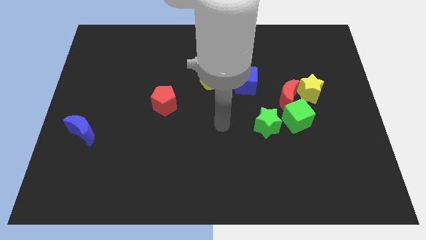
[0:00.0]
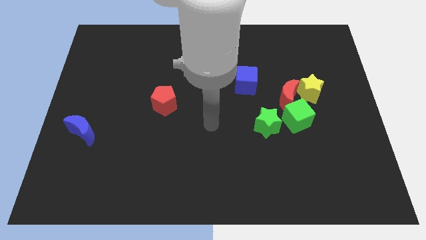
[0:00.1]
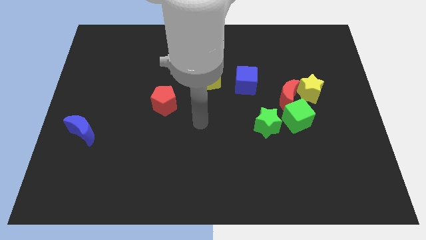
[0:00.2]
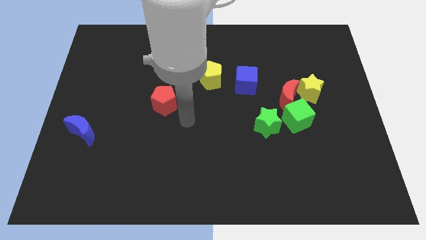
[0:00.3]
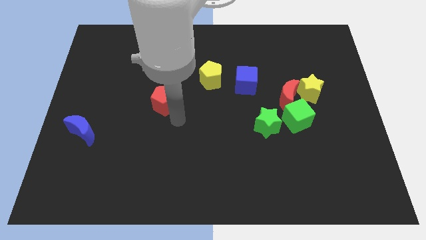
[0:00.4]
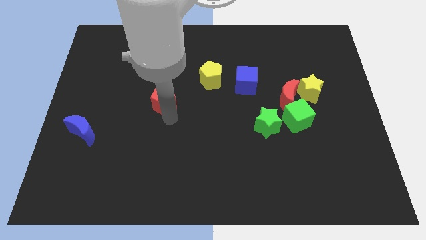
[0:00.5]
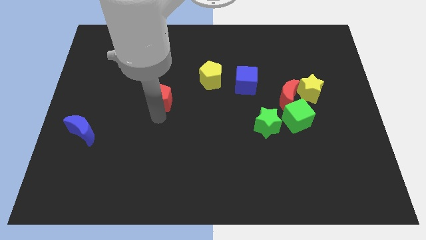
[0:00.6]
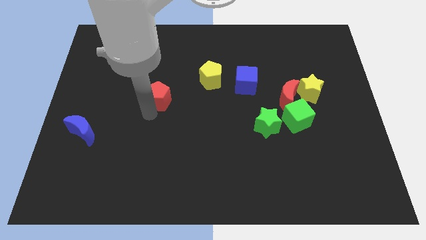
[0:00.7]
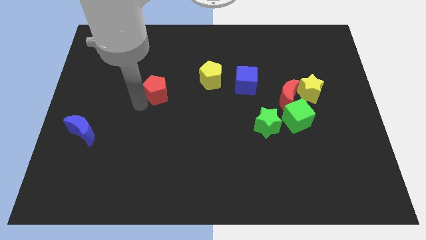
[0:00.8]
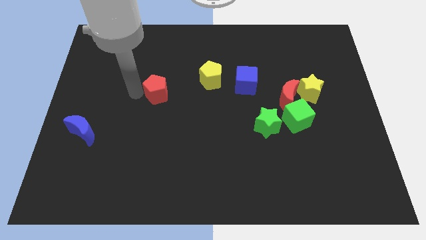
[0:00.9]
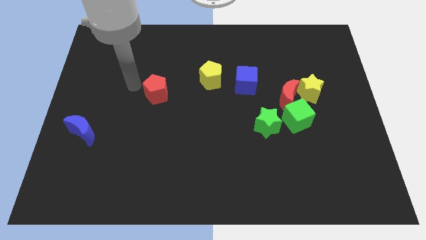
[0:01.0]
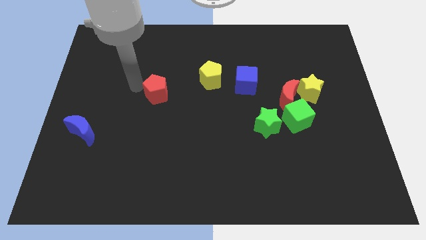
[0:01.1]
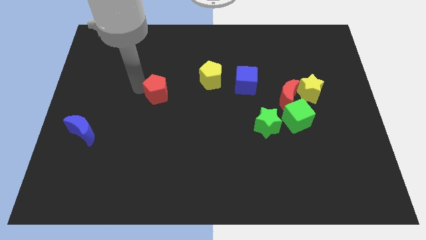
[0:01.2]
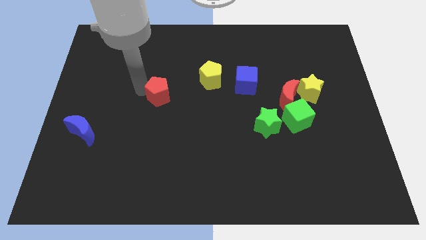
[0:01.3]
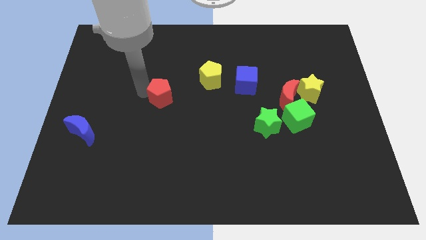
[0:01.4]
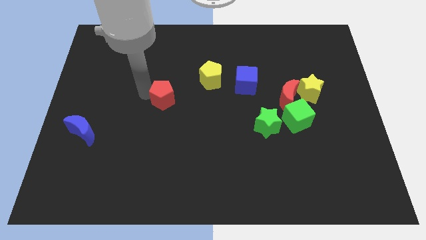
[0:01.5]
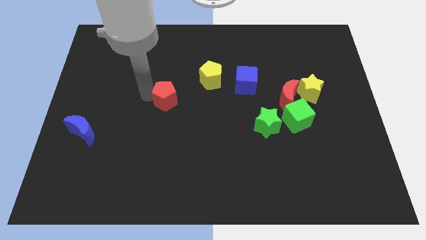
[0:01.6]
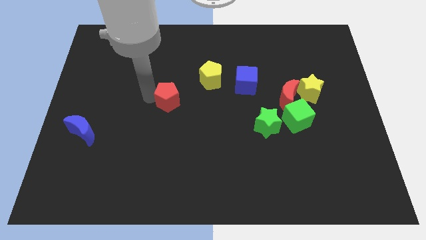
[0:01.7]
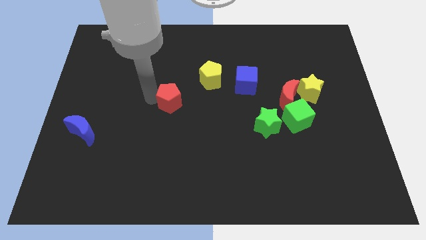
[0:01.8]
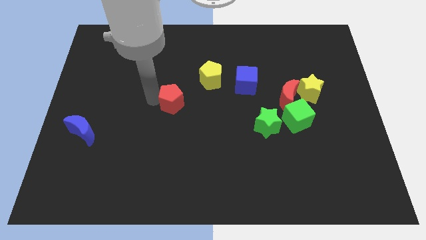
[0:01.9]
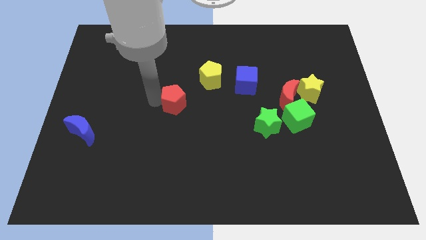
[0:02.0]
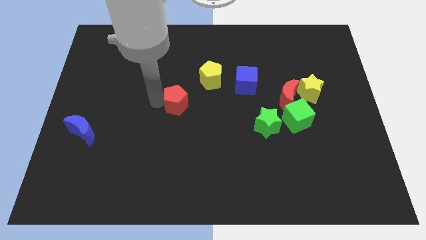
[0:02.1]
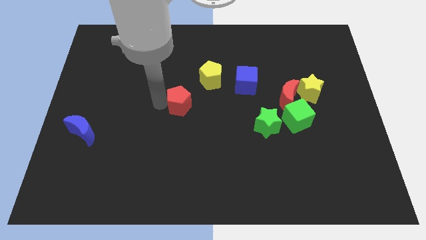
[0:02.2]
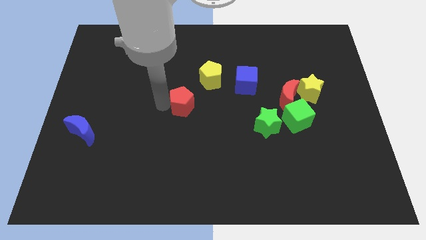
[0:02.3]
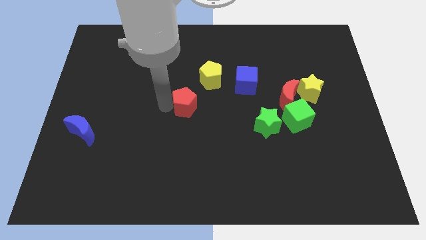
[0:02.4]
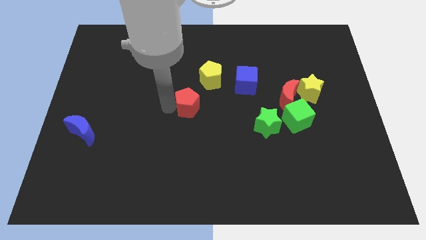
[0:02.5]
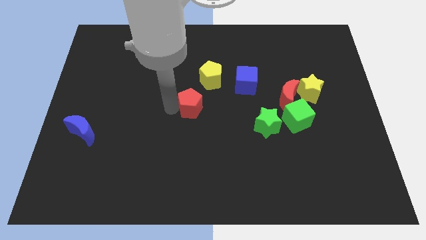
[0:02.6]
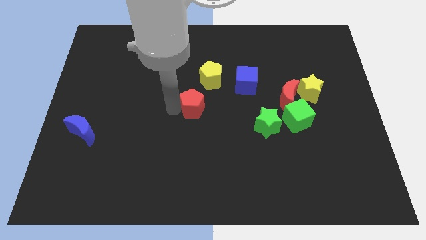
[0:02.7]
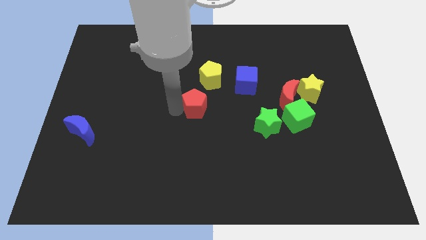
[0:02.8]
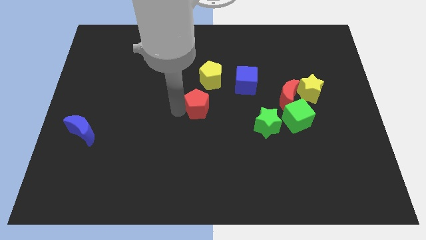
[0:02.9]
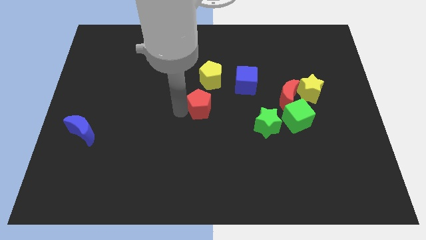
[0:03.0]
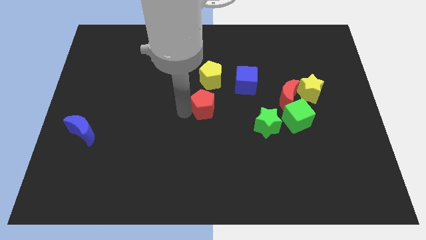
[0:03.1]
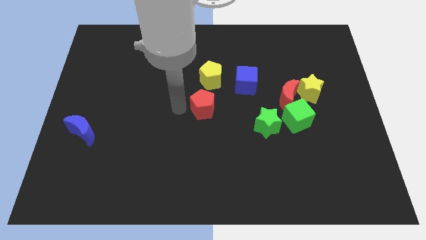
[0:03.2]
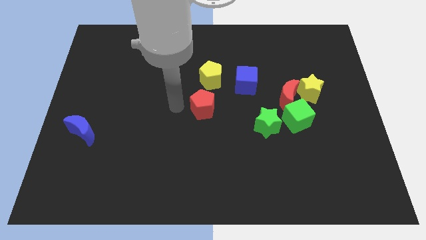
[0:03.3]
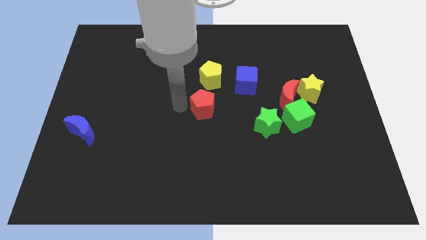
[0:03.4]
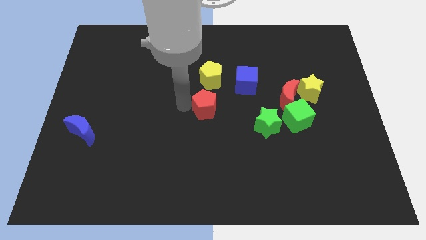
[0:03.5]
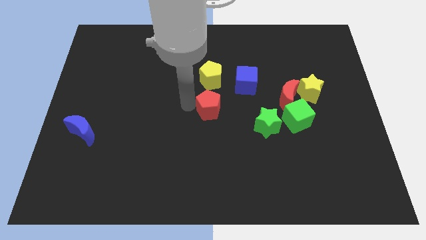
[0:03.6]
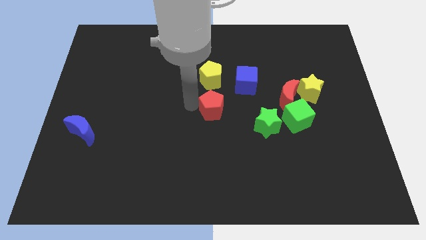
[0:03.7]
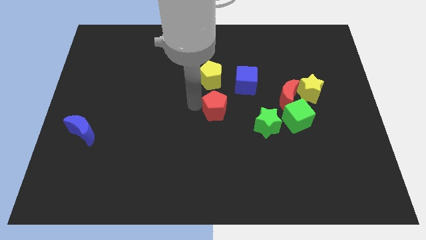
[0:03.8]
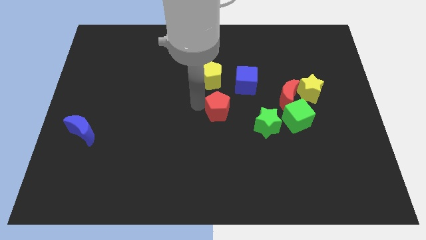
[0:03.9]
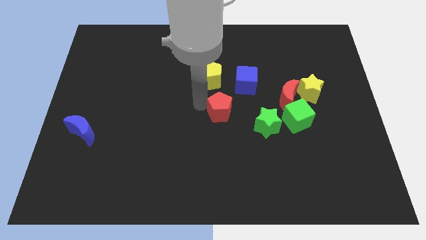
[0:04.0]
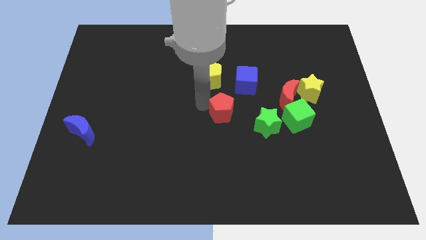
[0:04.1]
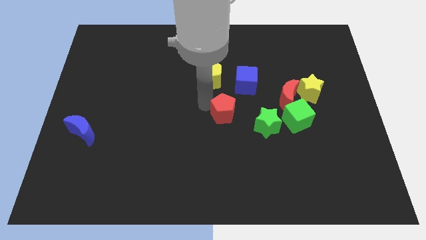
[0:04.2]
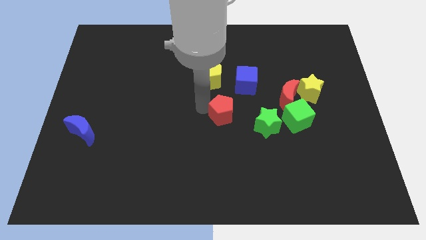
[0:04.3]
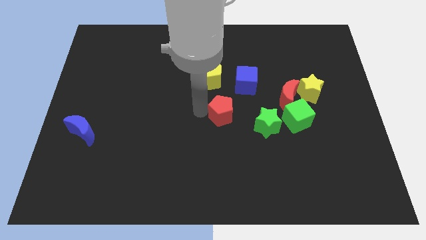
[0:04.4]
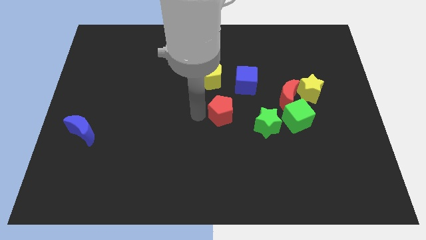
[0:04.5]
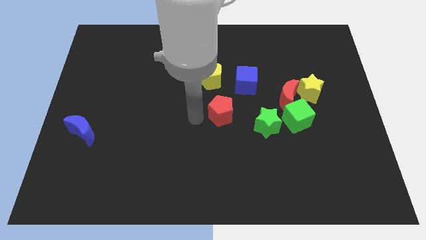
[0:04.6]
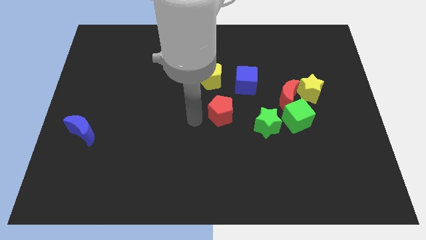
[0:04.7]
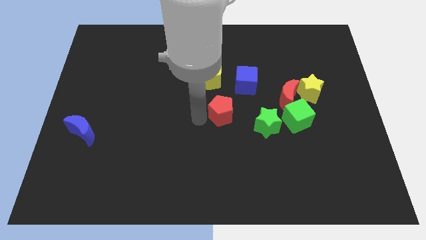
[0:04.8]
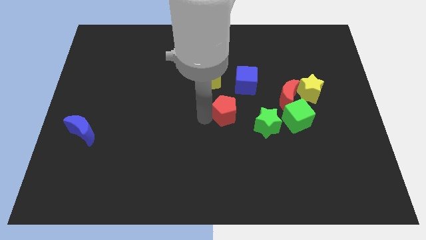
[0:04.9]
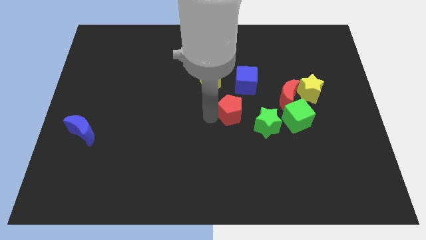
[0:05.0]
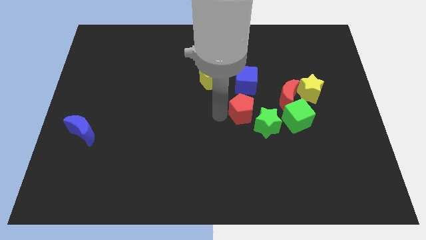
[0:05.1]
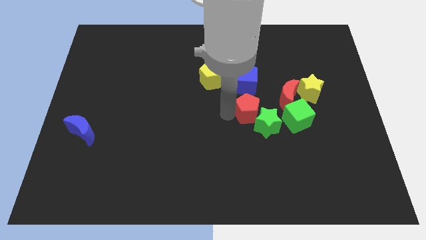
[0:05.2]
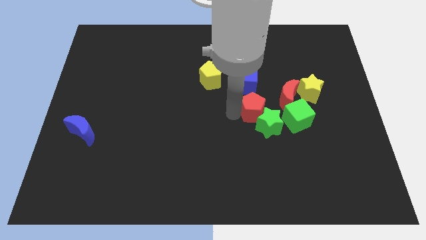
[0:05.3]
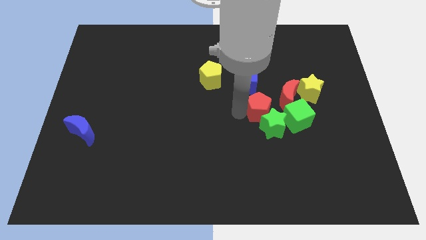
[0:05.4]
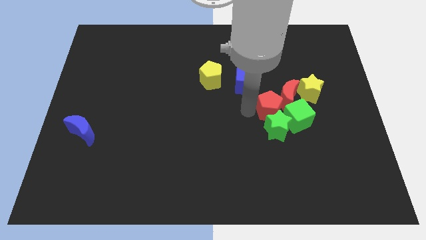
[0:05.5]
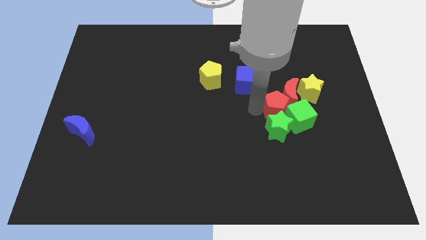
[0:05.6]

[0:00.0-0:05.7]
push the red pentagon towards the green cube

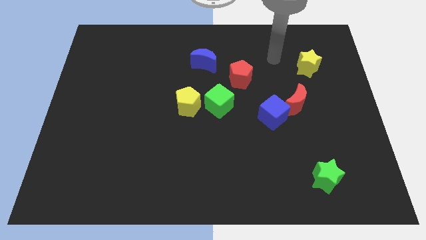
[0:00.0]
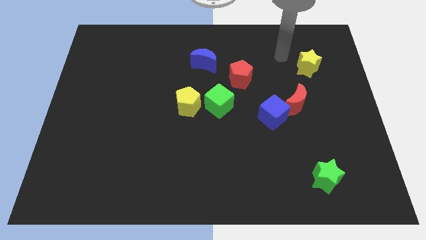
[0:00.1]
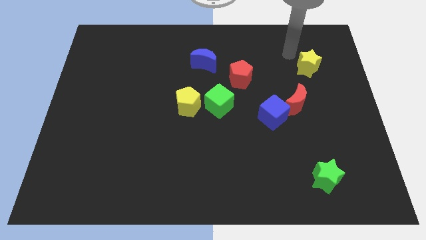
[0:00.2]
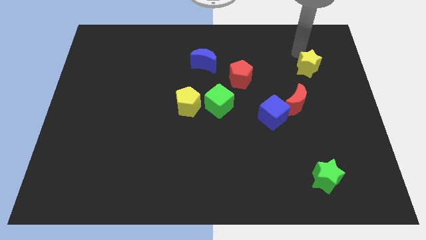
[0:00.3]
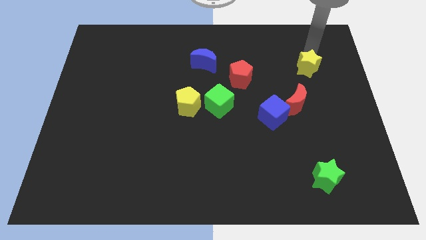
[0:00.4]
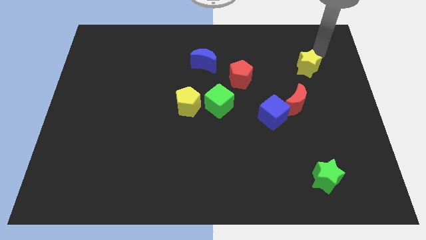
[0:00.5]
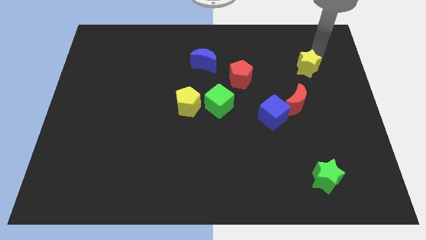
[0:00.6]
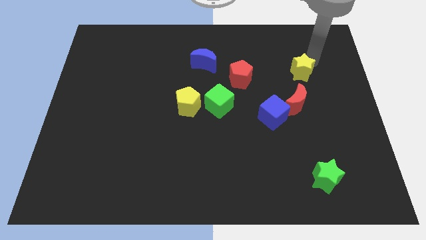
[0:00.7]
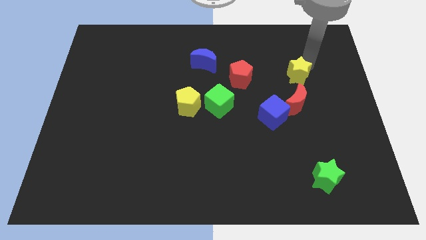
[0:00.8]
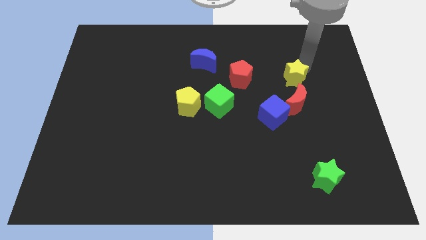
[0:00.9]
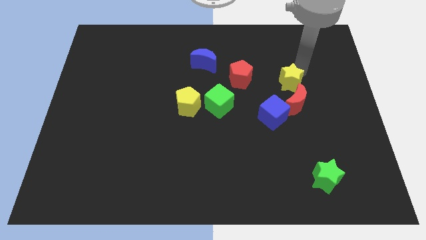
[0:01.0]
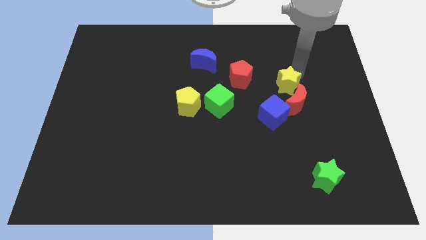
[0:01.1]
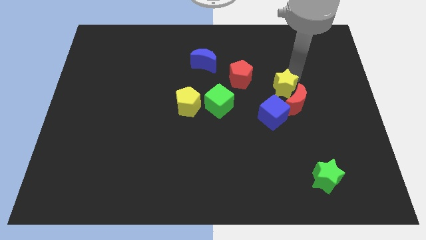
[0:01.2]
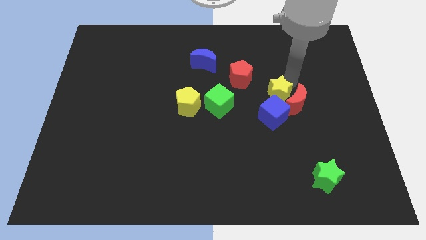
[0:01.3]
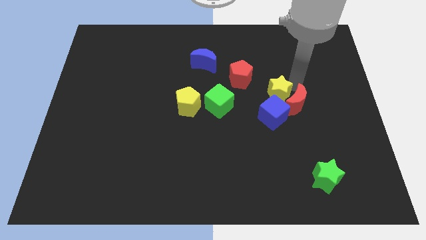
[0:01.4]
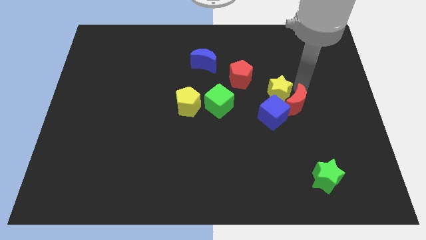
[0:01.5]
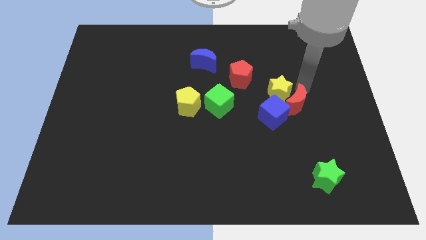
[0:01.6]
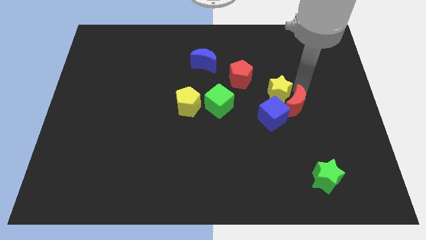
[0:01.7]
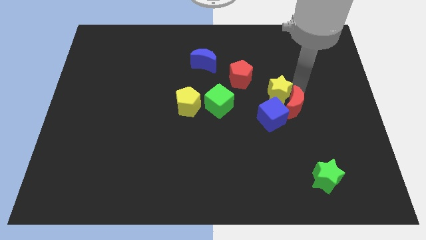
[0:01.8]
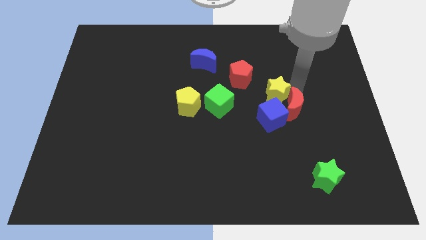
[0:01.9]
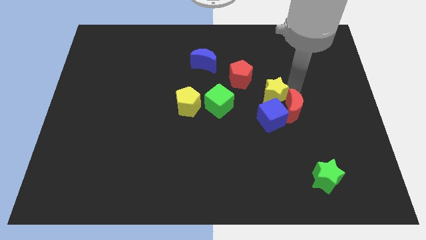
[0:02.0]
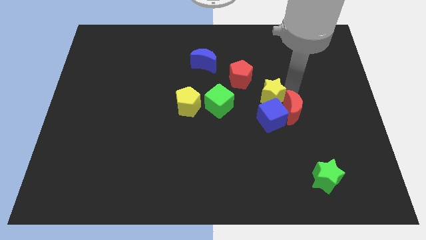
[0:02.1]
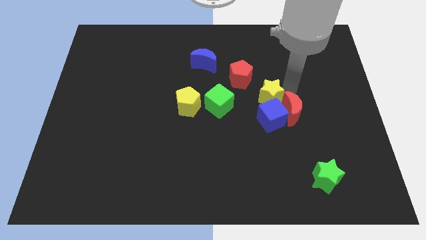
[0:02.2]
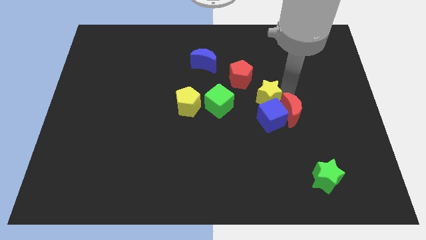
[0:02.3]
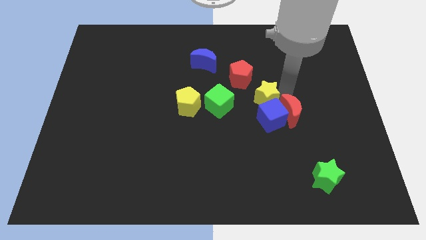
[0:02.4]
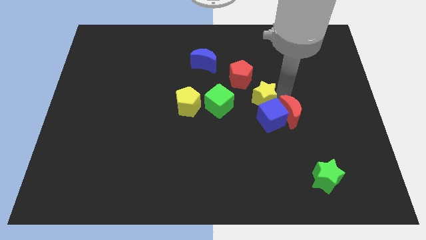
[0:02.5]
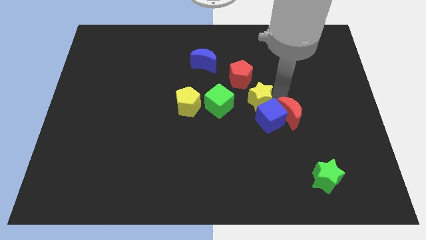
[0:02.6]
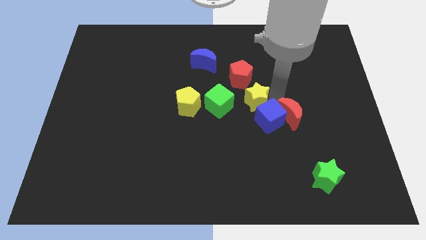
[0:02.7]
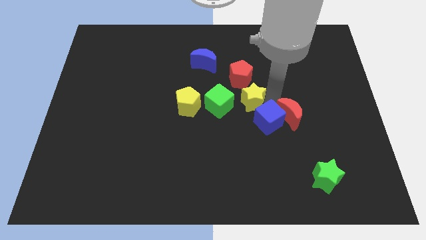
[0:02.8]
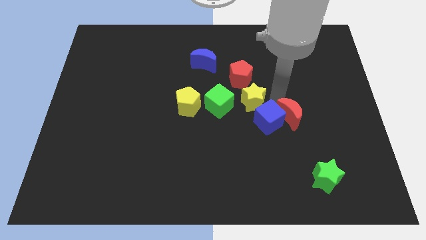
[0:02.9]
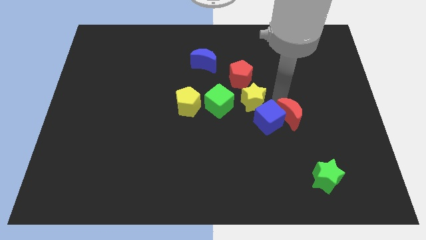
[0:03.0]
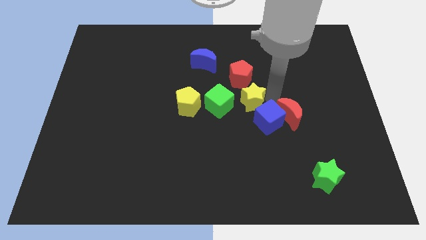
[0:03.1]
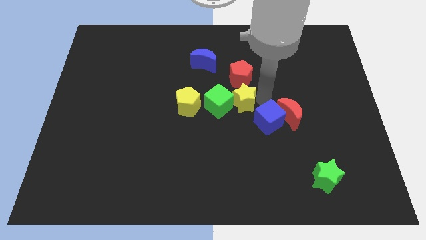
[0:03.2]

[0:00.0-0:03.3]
slide the yellow star towards the green cube
